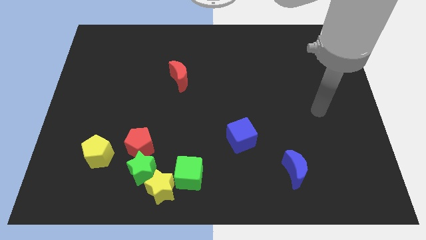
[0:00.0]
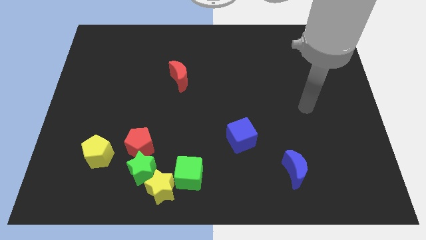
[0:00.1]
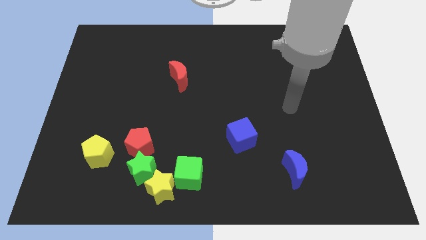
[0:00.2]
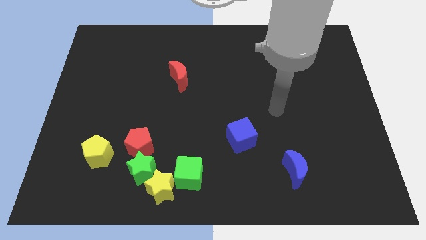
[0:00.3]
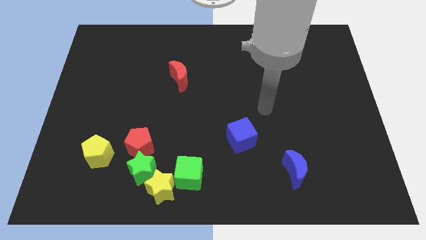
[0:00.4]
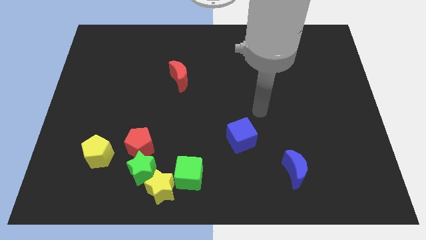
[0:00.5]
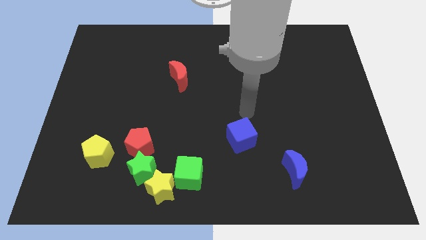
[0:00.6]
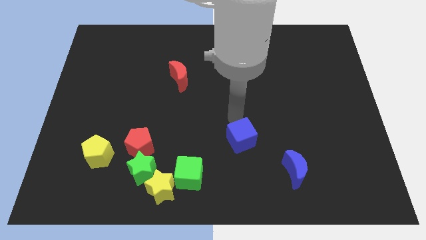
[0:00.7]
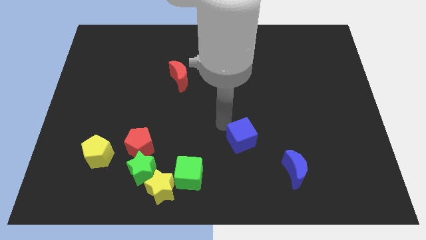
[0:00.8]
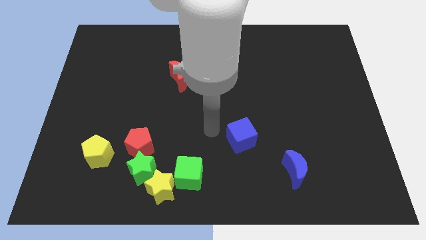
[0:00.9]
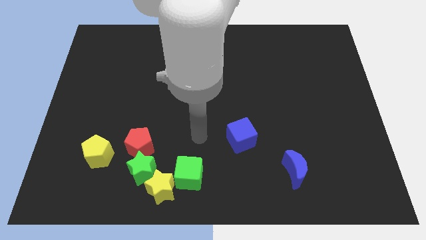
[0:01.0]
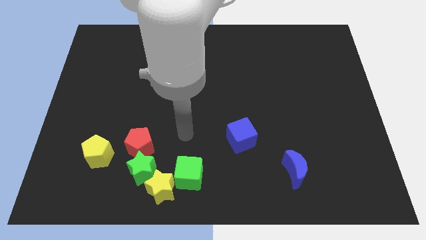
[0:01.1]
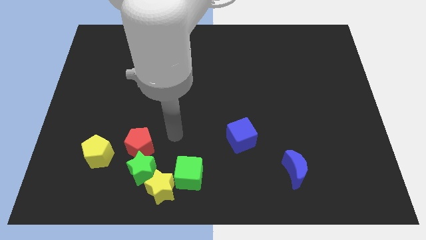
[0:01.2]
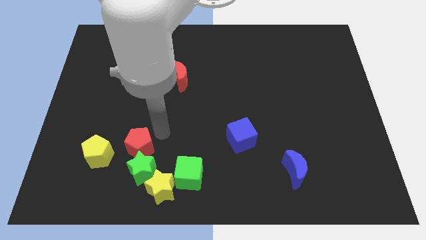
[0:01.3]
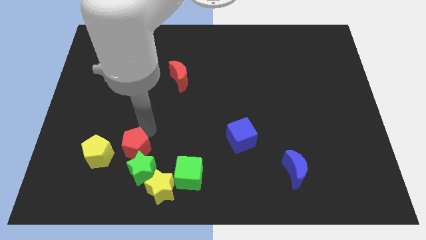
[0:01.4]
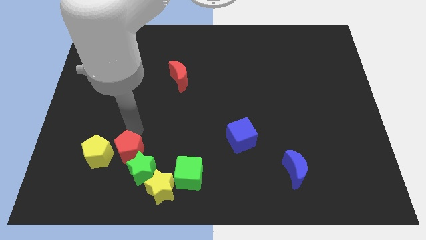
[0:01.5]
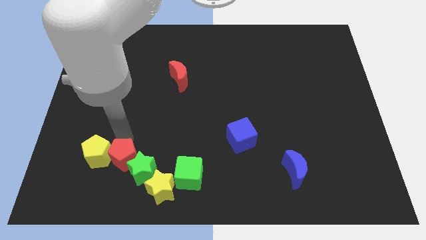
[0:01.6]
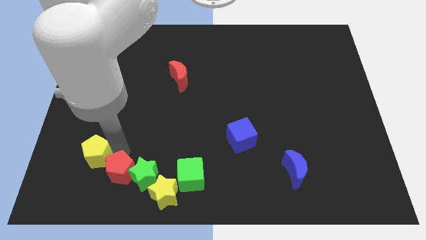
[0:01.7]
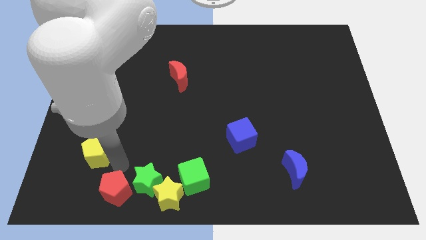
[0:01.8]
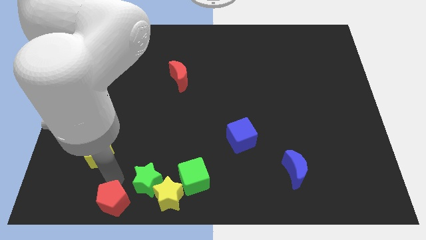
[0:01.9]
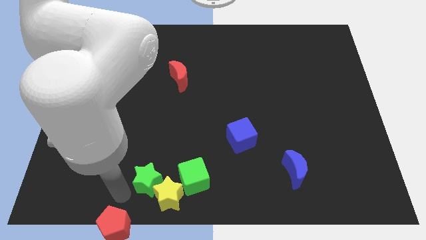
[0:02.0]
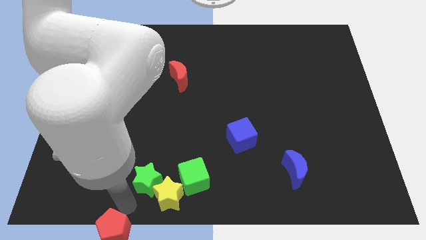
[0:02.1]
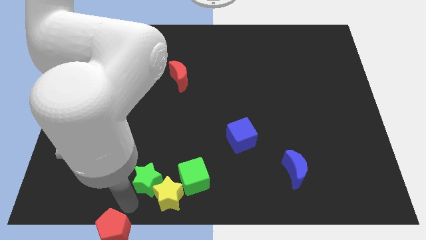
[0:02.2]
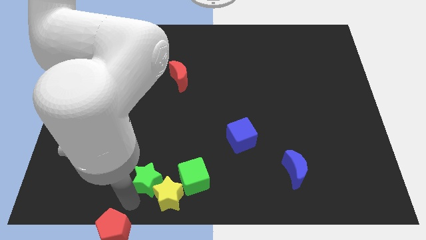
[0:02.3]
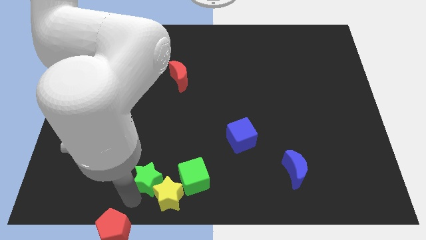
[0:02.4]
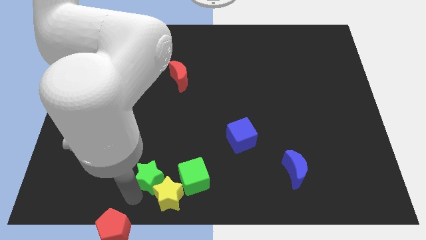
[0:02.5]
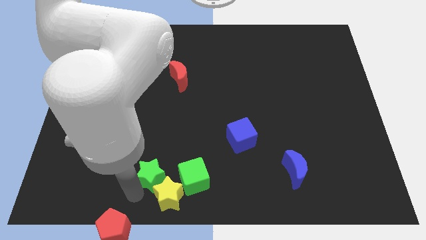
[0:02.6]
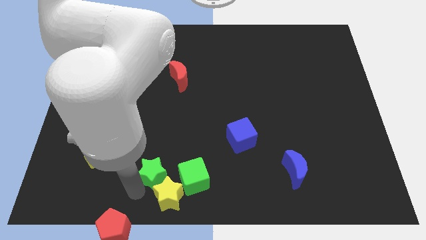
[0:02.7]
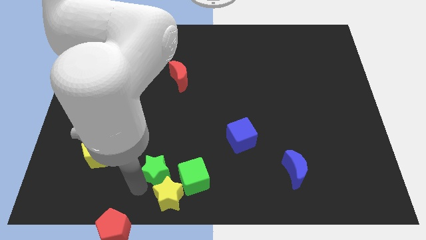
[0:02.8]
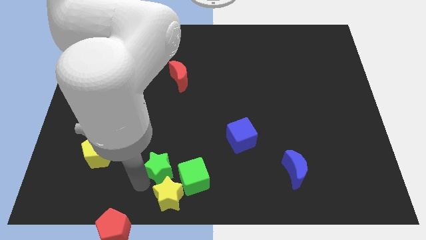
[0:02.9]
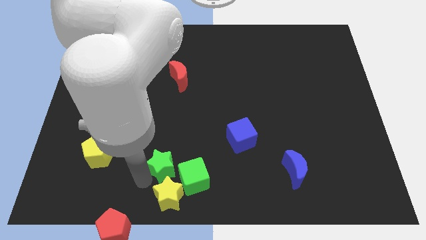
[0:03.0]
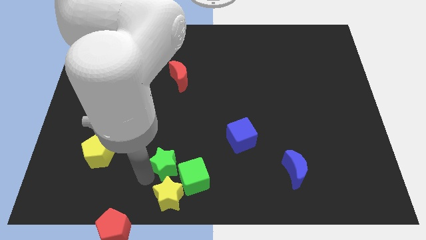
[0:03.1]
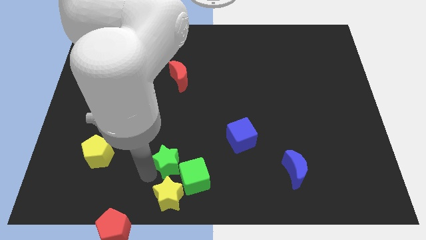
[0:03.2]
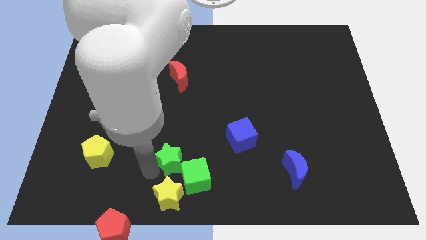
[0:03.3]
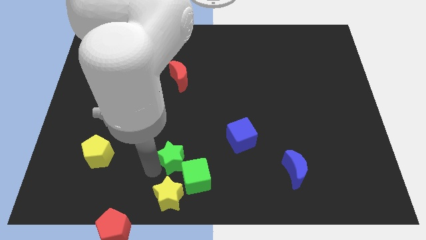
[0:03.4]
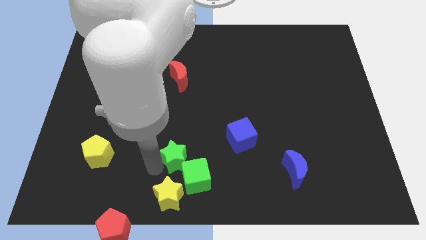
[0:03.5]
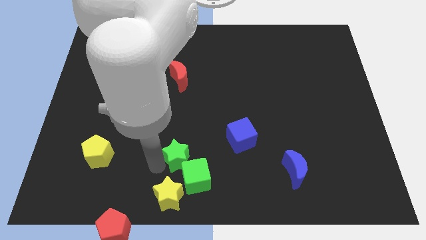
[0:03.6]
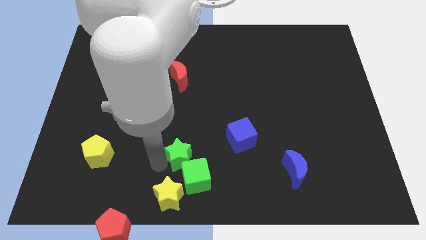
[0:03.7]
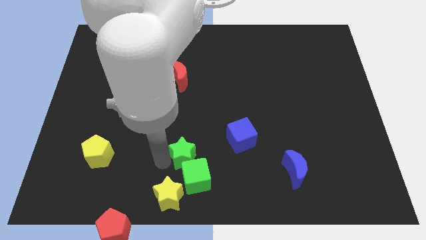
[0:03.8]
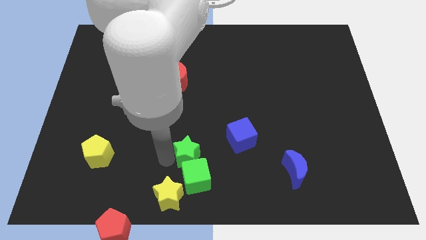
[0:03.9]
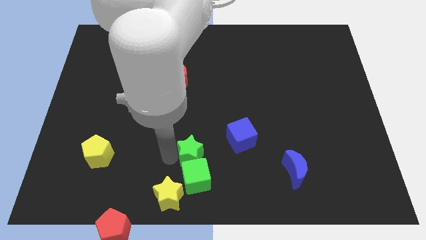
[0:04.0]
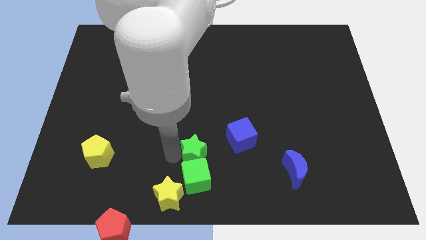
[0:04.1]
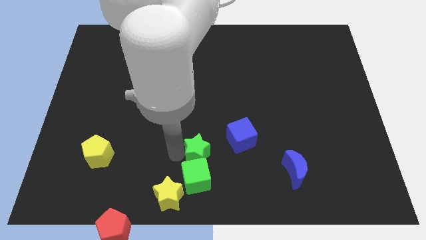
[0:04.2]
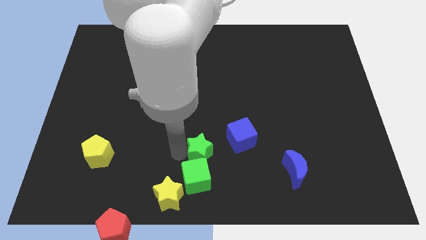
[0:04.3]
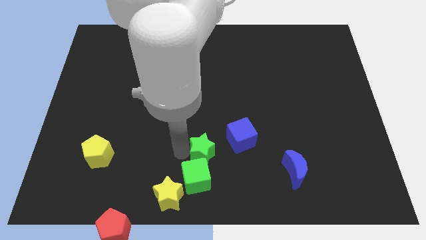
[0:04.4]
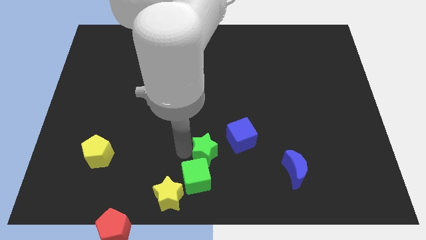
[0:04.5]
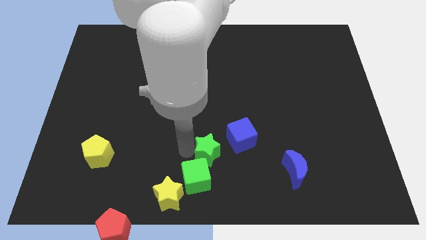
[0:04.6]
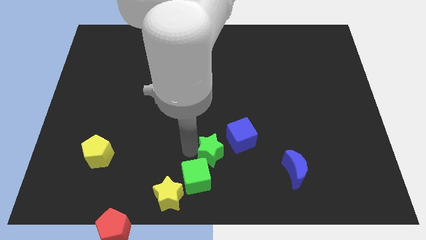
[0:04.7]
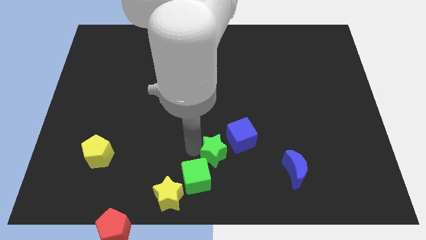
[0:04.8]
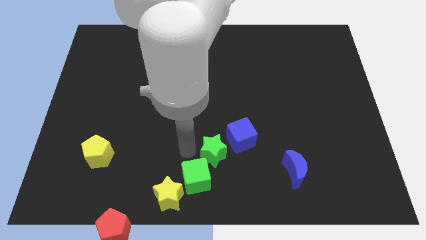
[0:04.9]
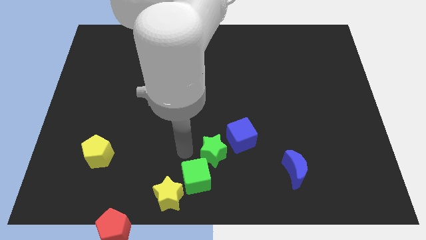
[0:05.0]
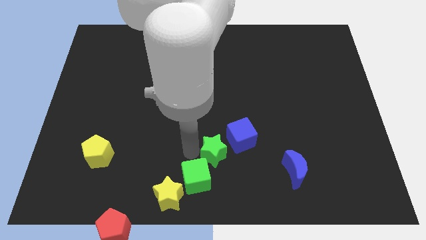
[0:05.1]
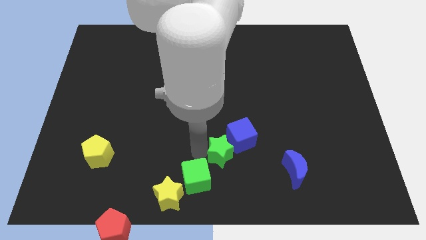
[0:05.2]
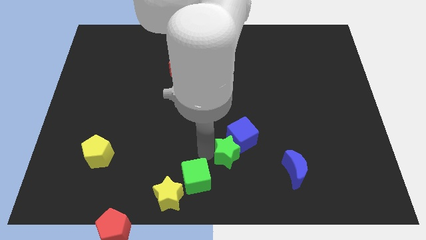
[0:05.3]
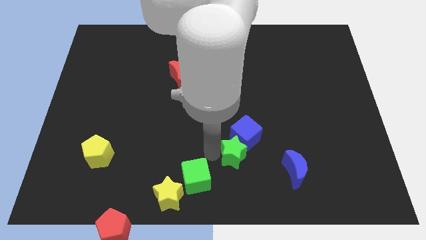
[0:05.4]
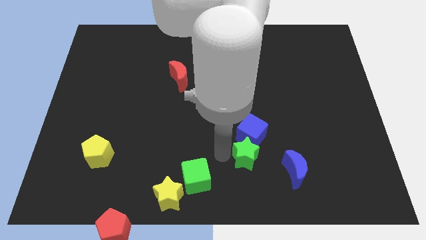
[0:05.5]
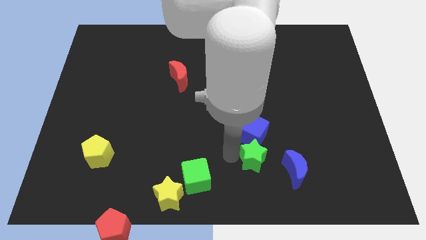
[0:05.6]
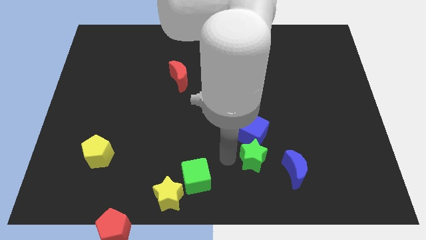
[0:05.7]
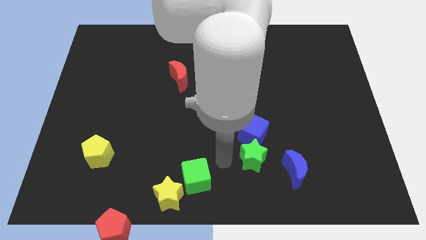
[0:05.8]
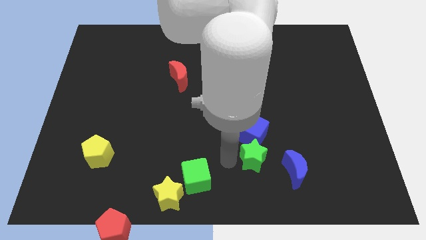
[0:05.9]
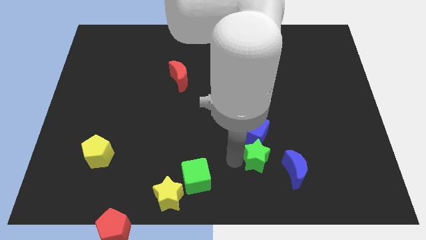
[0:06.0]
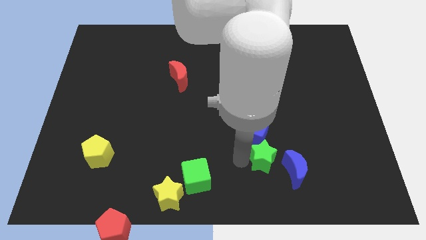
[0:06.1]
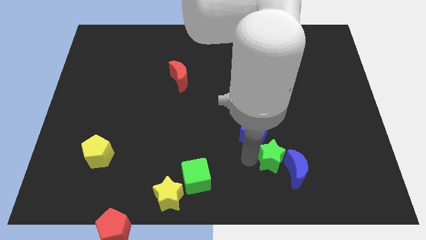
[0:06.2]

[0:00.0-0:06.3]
push the green star to the blue moon
